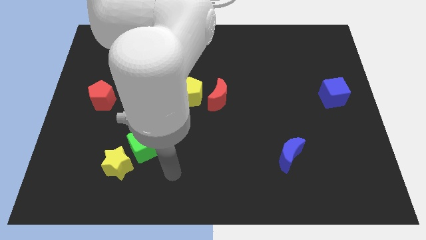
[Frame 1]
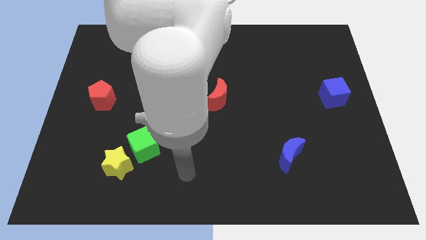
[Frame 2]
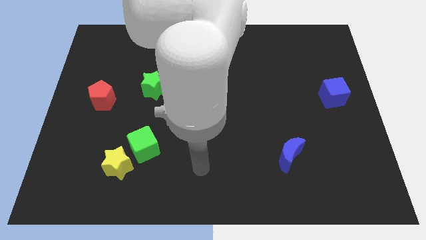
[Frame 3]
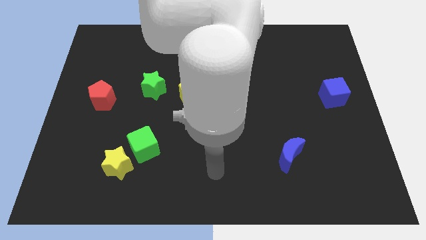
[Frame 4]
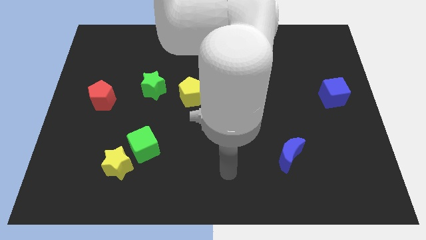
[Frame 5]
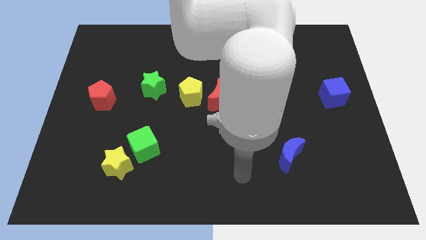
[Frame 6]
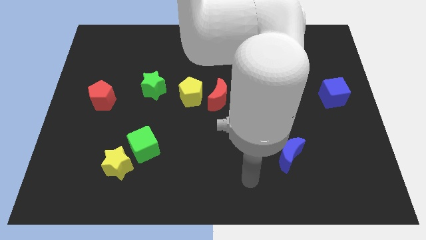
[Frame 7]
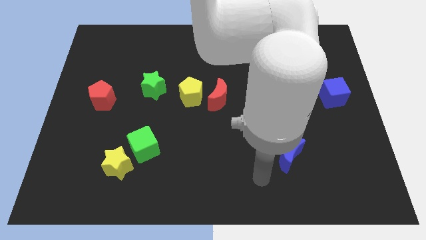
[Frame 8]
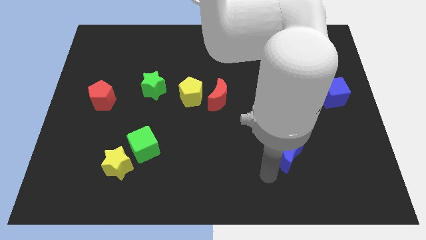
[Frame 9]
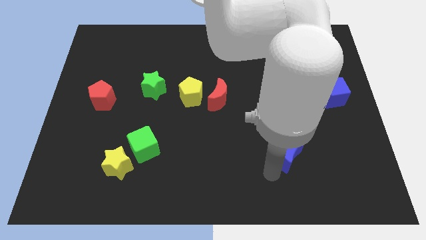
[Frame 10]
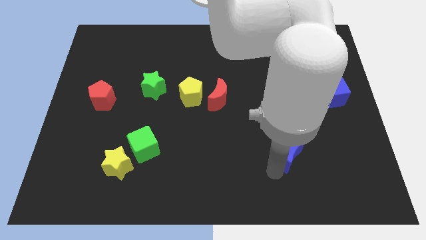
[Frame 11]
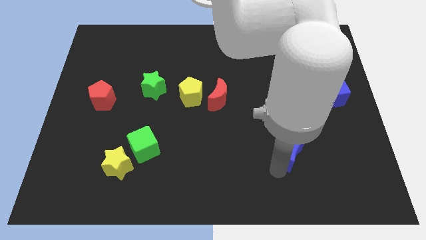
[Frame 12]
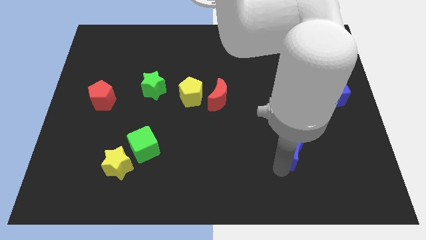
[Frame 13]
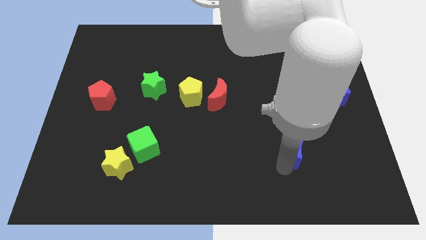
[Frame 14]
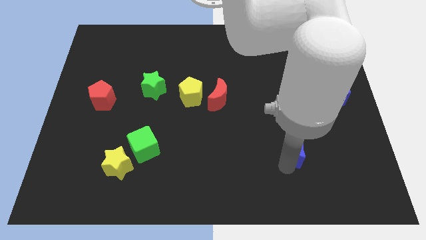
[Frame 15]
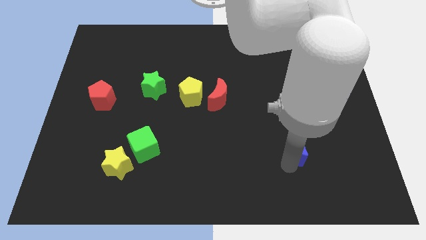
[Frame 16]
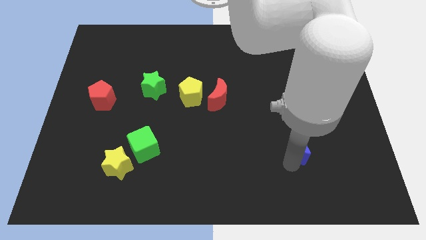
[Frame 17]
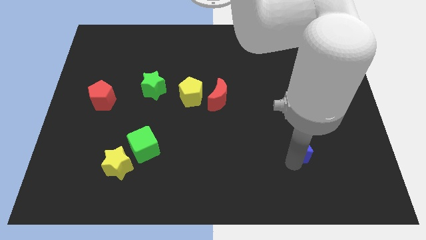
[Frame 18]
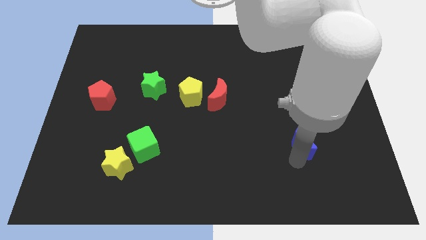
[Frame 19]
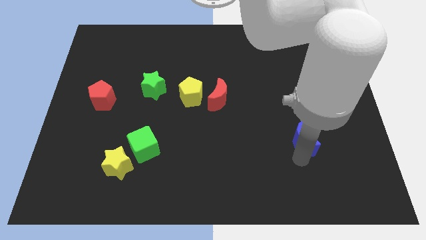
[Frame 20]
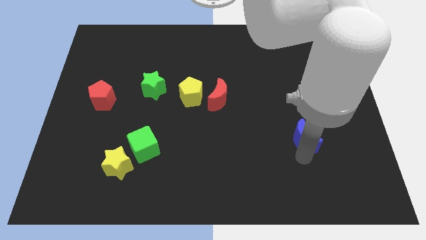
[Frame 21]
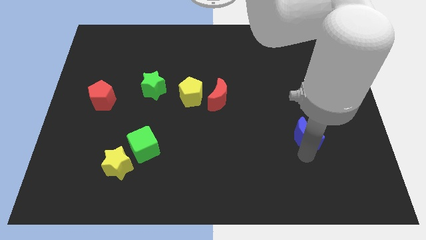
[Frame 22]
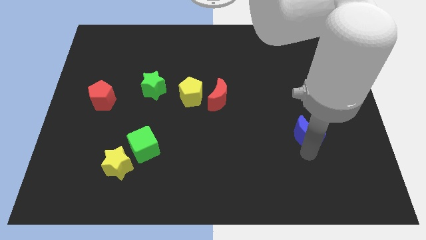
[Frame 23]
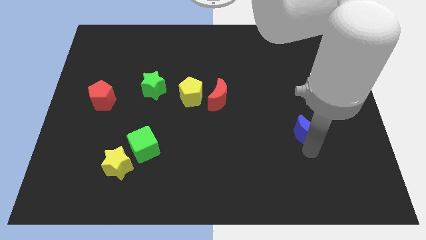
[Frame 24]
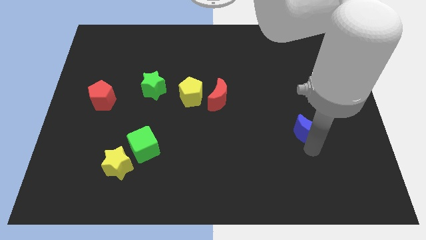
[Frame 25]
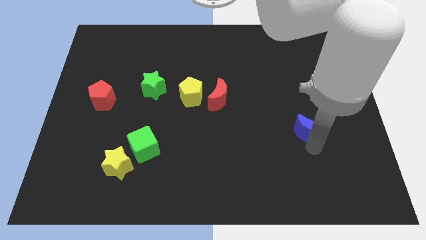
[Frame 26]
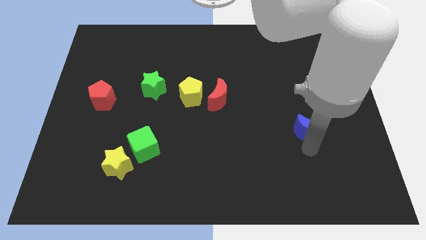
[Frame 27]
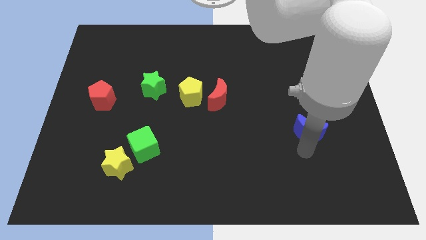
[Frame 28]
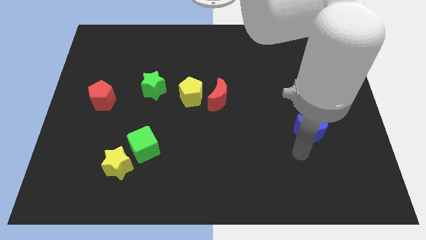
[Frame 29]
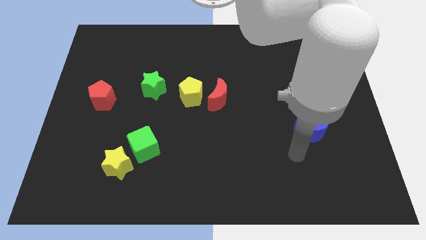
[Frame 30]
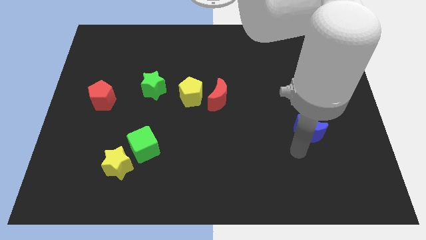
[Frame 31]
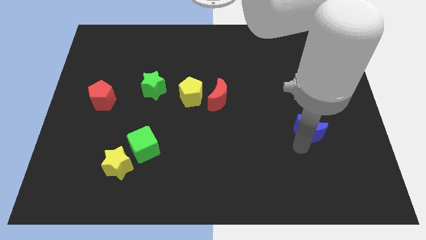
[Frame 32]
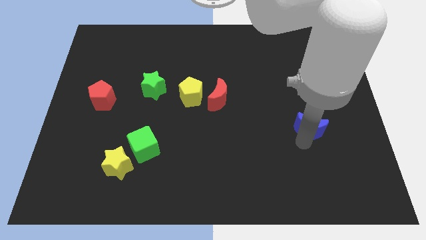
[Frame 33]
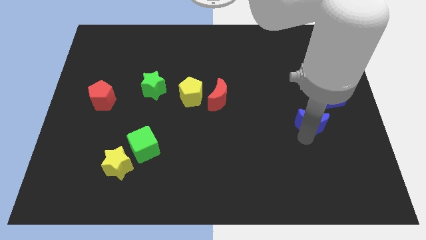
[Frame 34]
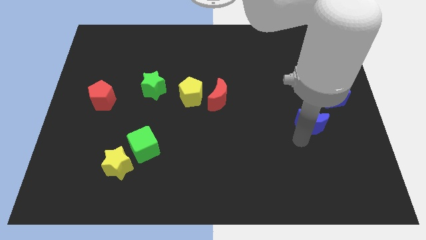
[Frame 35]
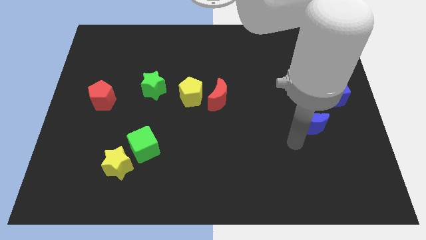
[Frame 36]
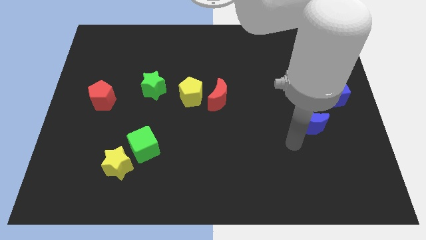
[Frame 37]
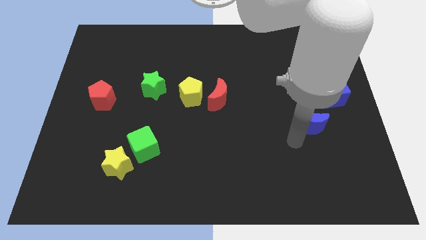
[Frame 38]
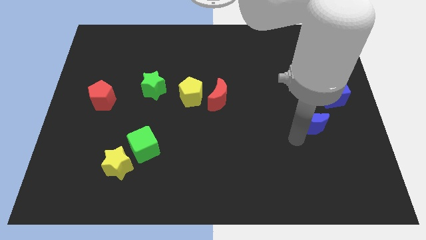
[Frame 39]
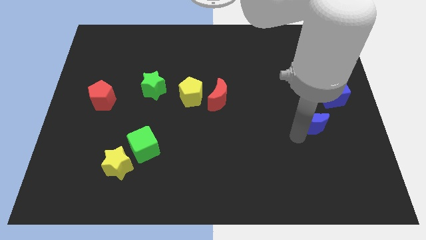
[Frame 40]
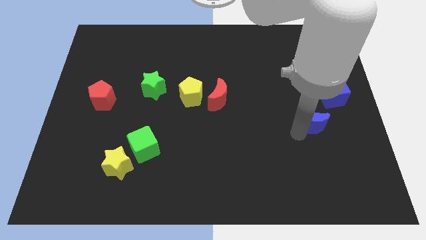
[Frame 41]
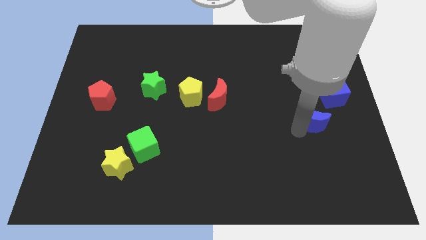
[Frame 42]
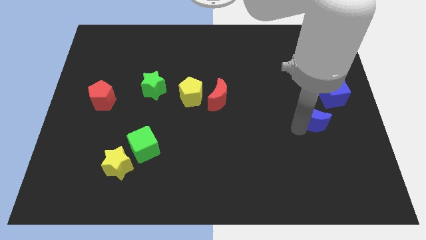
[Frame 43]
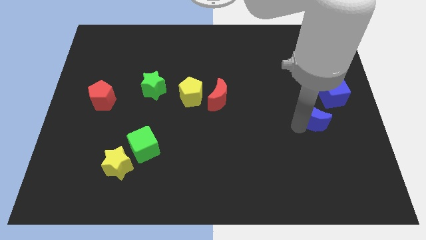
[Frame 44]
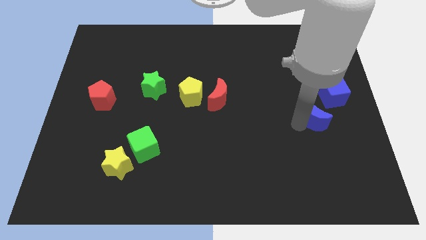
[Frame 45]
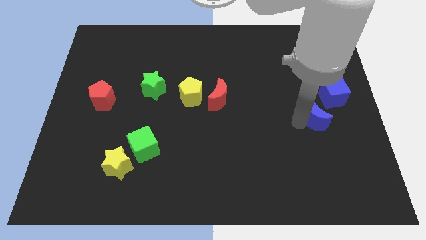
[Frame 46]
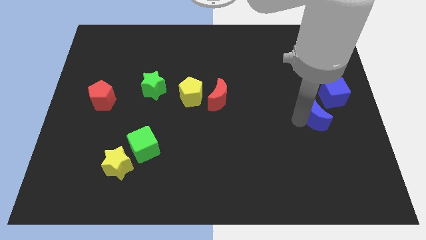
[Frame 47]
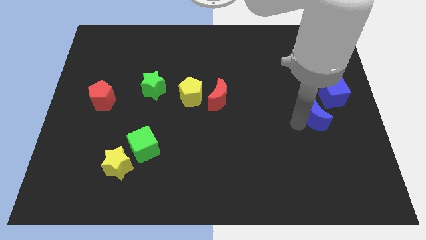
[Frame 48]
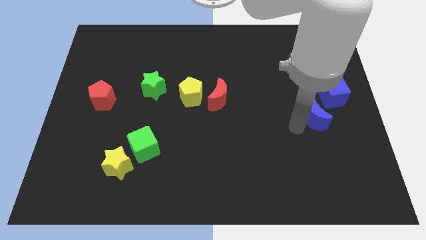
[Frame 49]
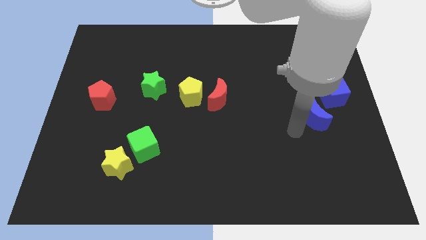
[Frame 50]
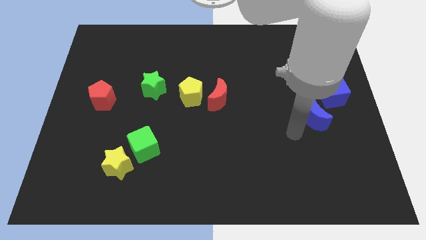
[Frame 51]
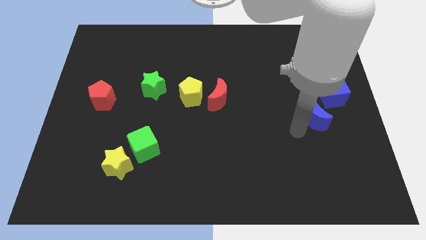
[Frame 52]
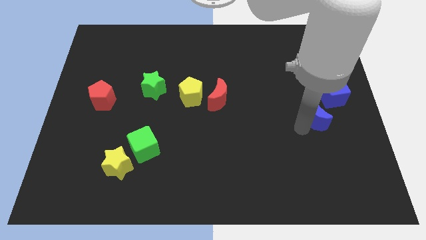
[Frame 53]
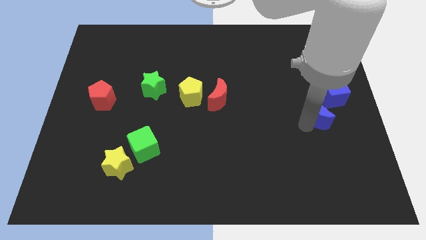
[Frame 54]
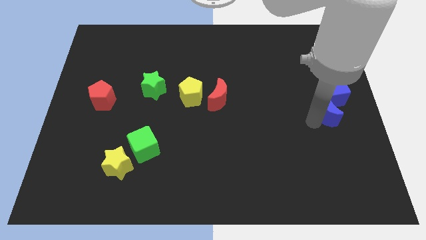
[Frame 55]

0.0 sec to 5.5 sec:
move the blue moon next to the blue cube

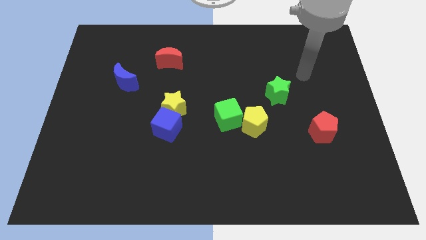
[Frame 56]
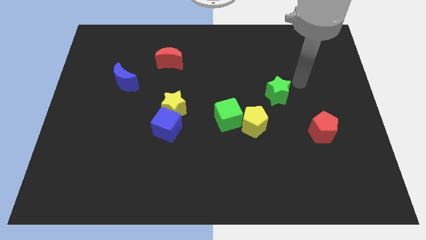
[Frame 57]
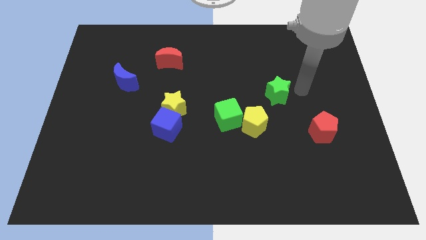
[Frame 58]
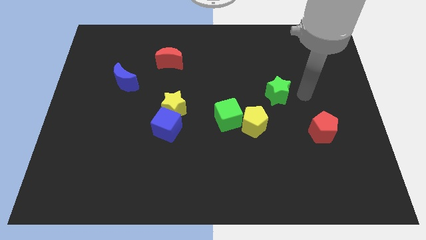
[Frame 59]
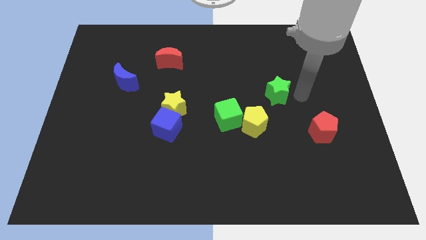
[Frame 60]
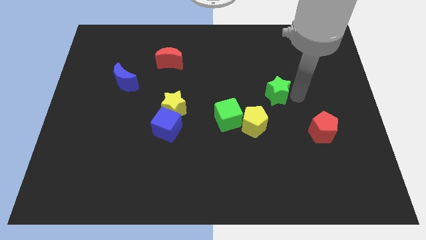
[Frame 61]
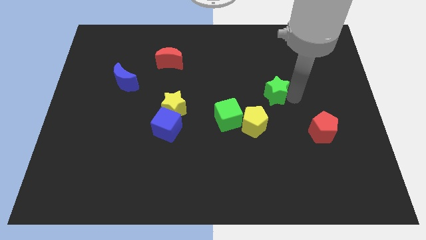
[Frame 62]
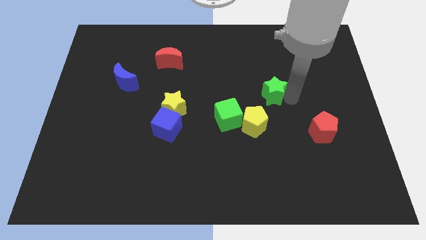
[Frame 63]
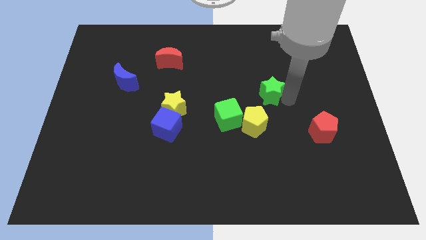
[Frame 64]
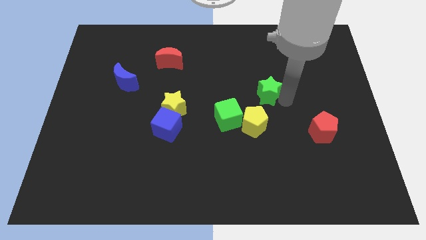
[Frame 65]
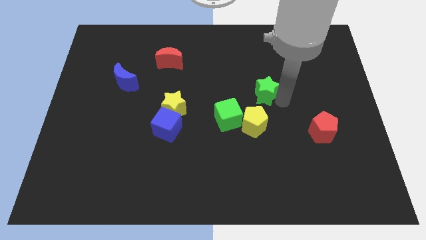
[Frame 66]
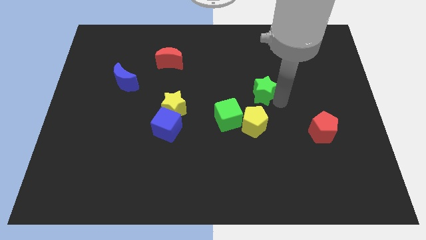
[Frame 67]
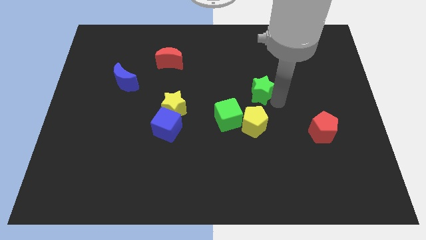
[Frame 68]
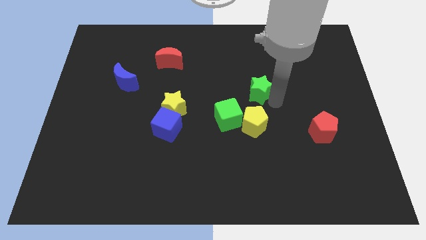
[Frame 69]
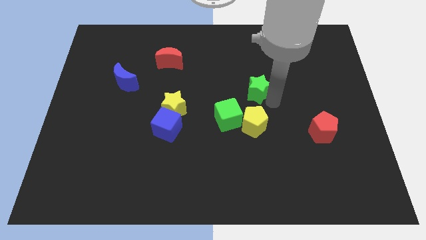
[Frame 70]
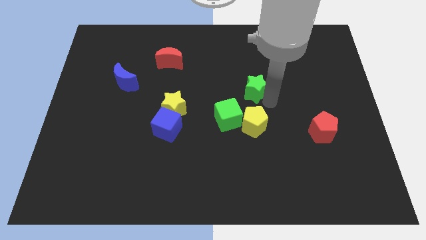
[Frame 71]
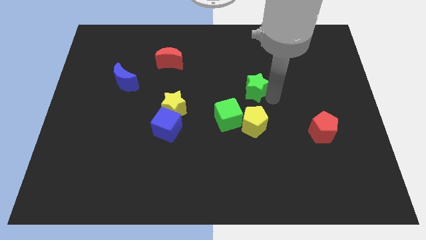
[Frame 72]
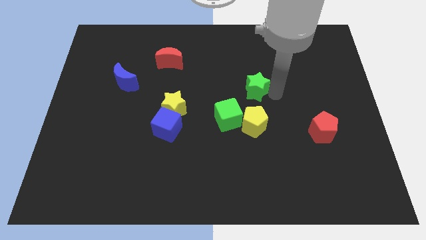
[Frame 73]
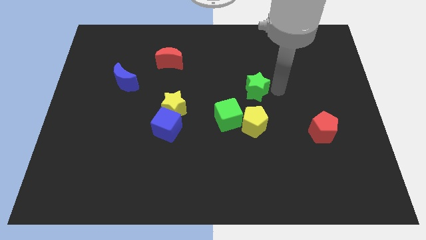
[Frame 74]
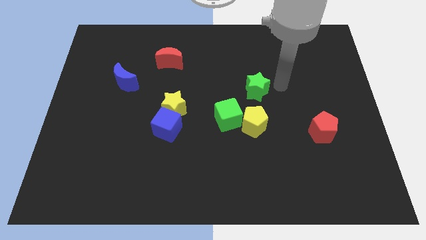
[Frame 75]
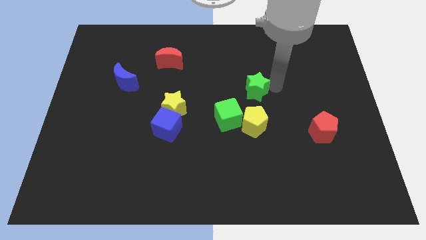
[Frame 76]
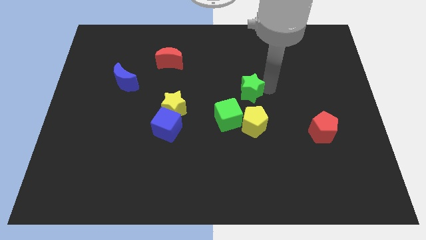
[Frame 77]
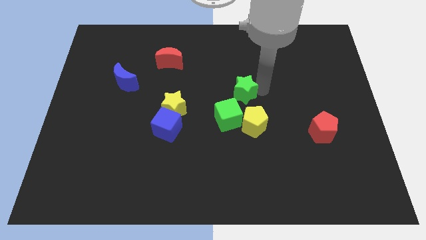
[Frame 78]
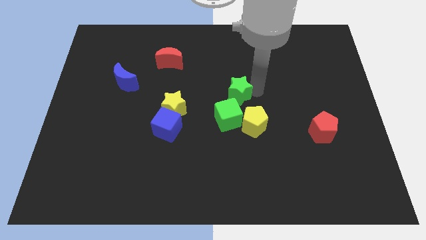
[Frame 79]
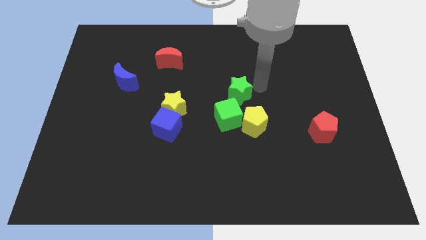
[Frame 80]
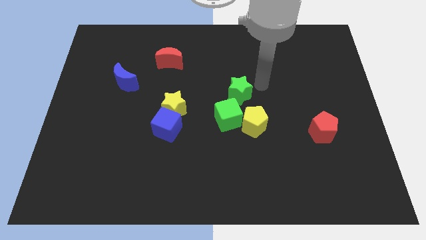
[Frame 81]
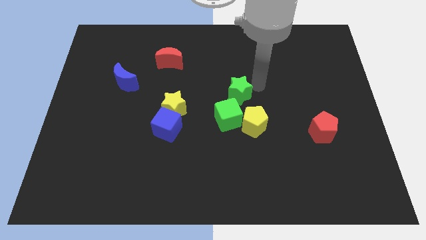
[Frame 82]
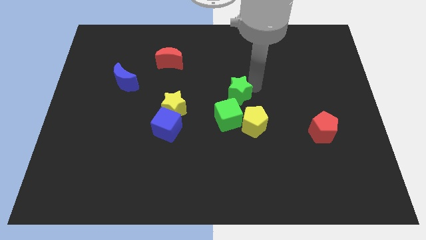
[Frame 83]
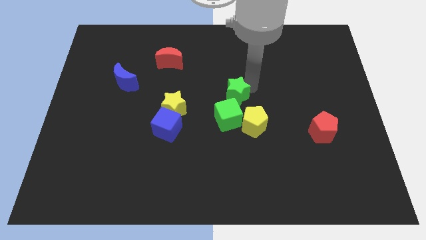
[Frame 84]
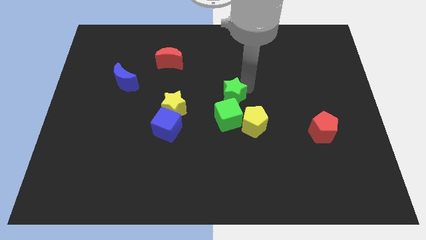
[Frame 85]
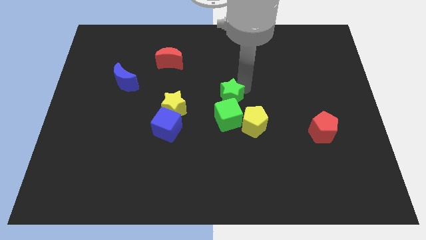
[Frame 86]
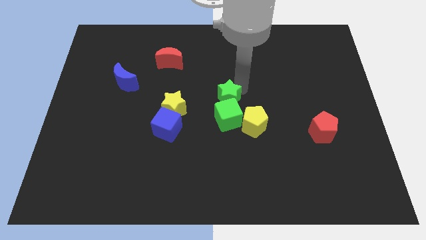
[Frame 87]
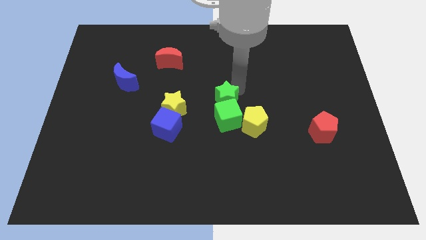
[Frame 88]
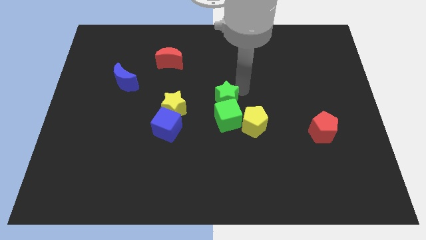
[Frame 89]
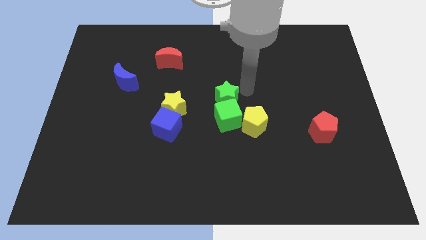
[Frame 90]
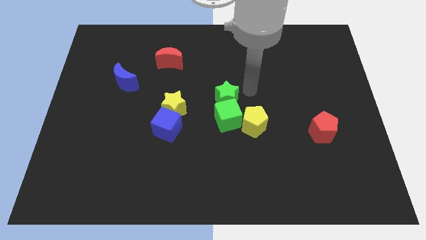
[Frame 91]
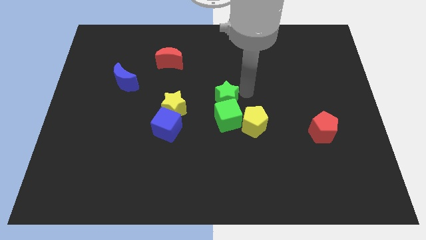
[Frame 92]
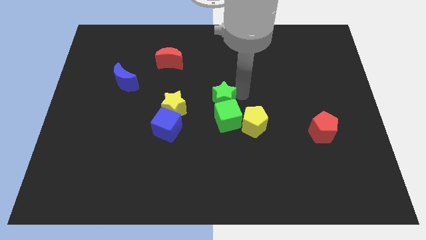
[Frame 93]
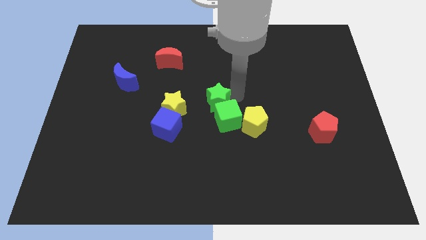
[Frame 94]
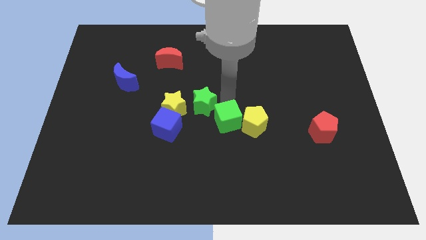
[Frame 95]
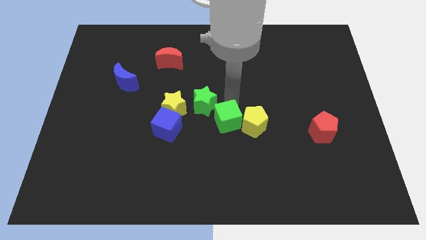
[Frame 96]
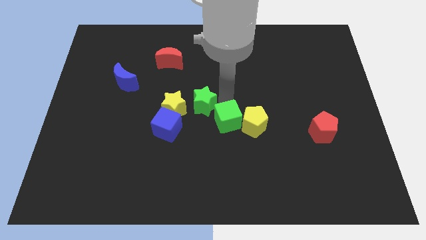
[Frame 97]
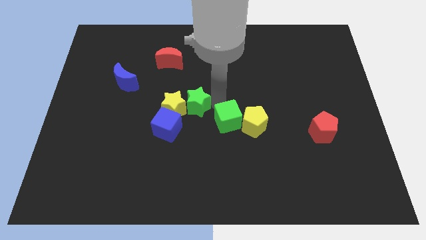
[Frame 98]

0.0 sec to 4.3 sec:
push the green star towards the yellow star
